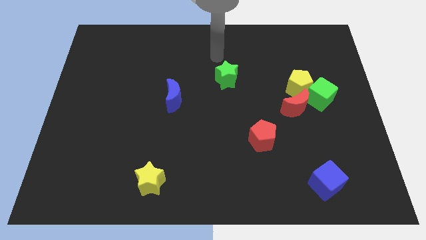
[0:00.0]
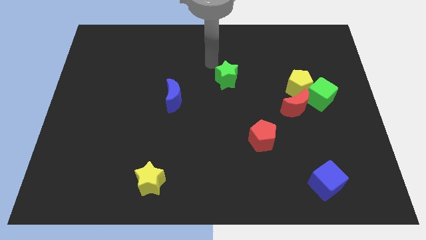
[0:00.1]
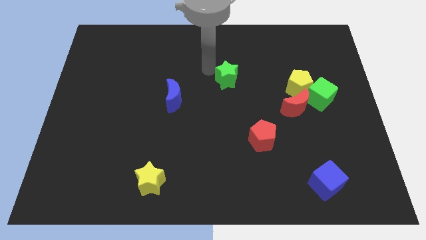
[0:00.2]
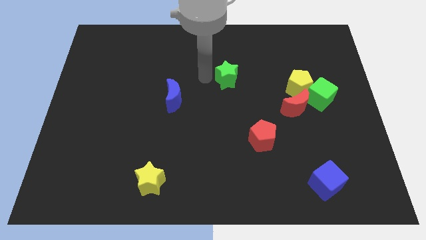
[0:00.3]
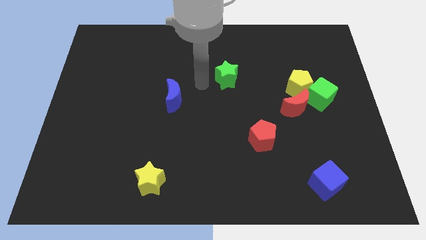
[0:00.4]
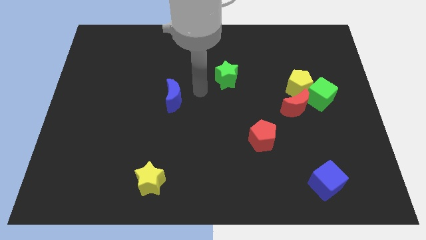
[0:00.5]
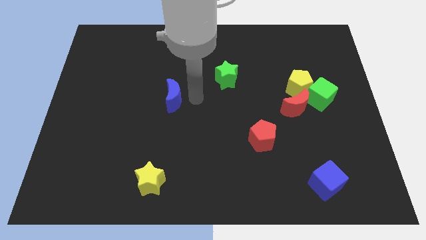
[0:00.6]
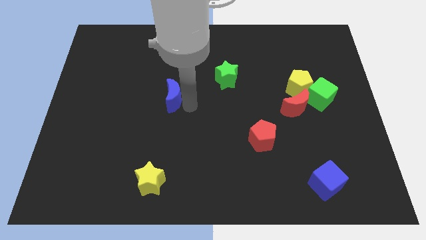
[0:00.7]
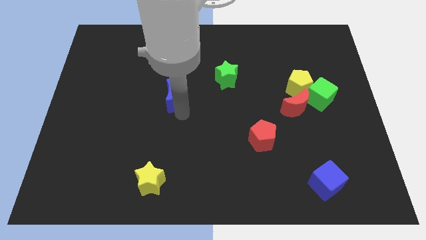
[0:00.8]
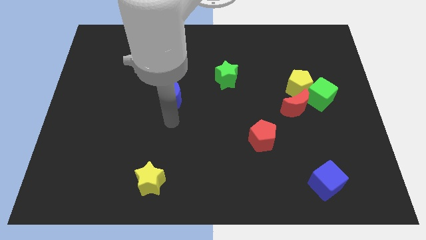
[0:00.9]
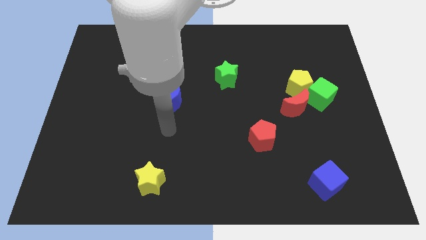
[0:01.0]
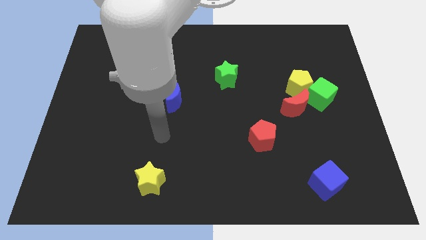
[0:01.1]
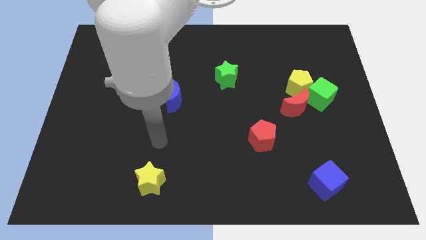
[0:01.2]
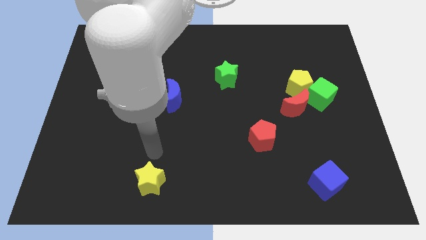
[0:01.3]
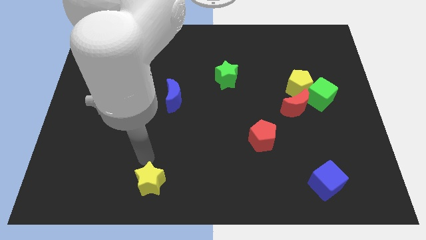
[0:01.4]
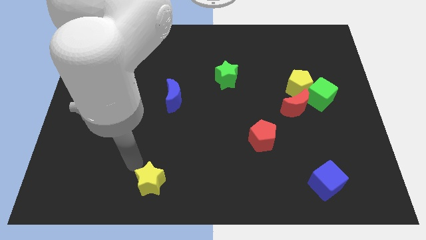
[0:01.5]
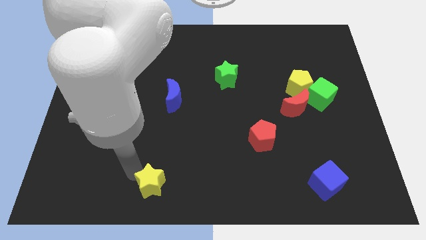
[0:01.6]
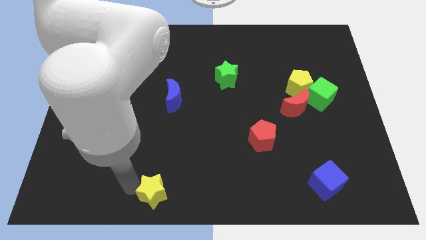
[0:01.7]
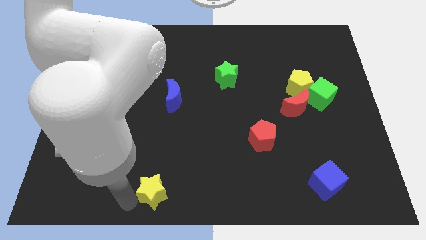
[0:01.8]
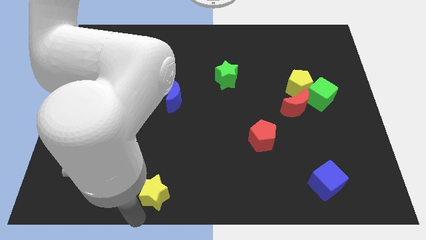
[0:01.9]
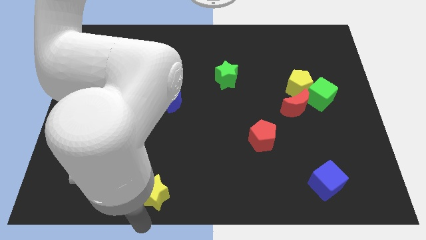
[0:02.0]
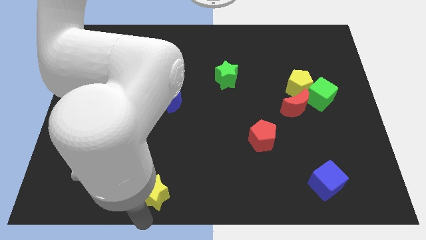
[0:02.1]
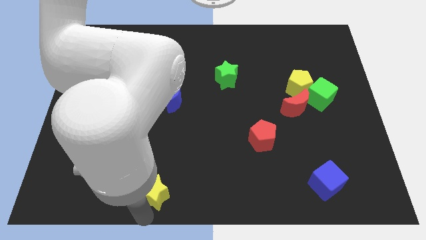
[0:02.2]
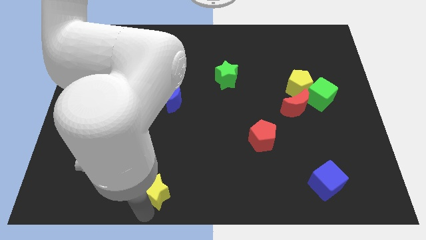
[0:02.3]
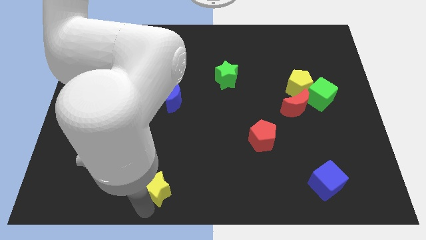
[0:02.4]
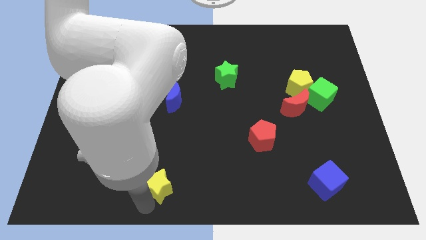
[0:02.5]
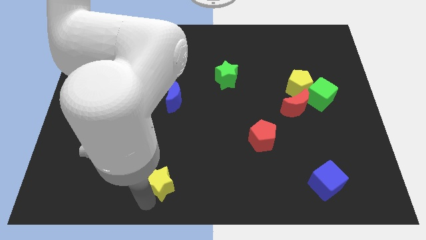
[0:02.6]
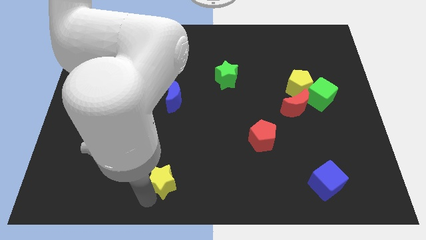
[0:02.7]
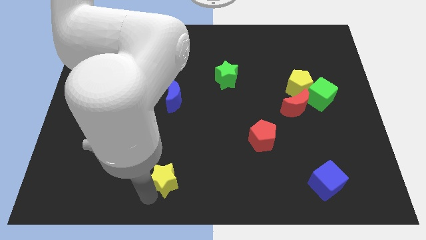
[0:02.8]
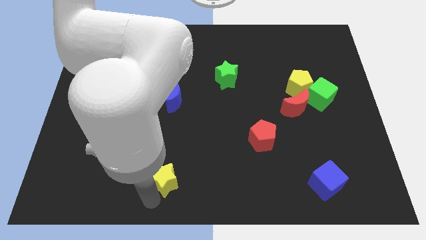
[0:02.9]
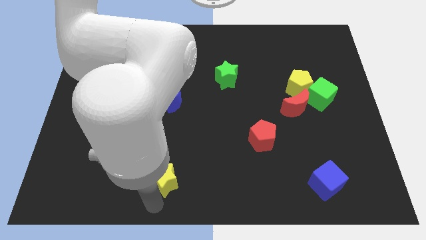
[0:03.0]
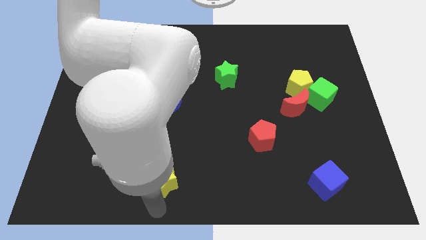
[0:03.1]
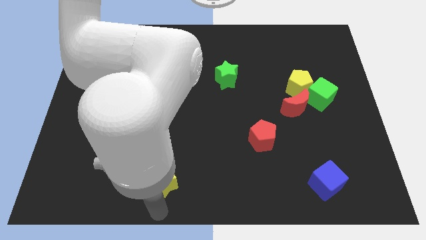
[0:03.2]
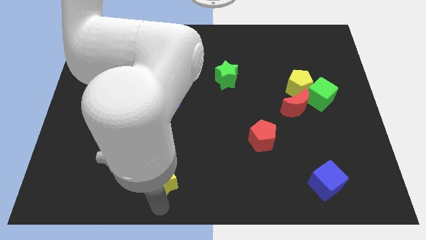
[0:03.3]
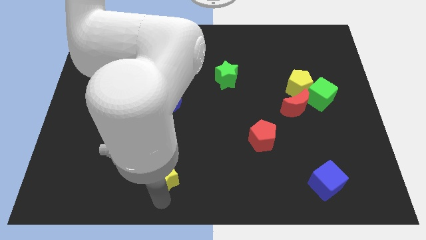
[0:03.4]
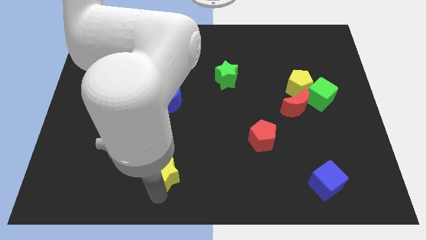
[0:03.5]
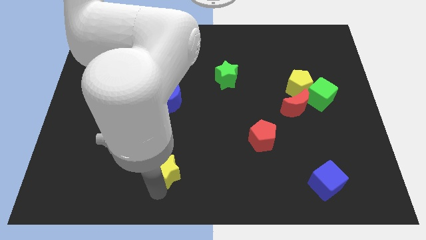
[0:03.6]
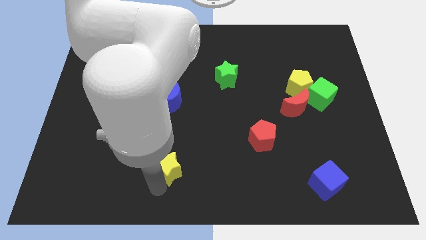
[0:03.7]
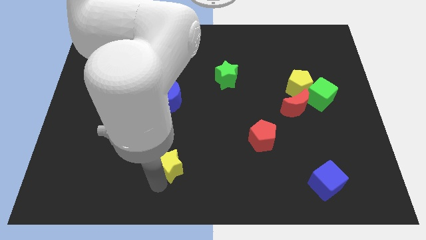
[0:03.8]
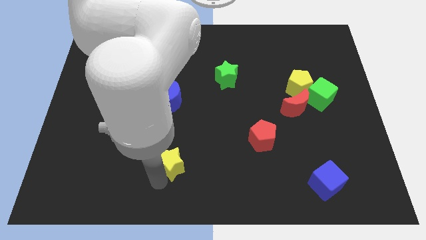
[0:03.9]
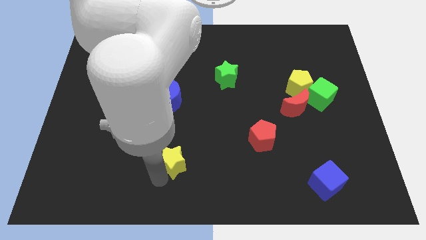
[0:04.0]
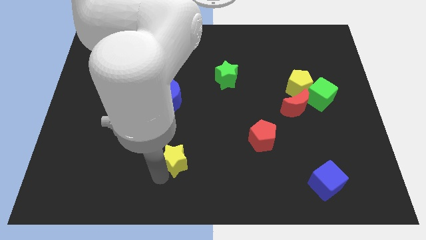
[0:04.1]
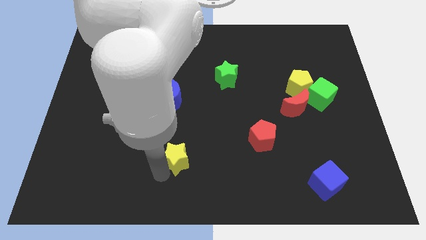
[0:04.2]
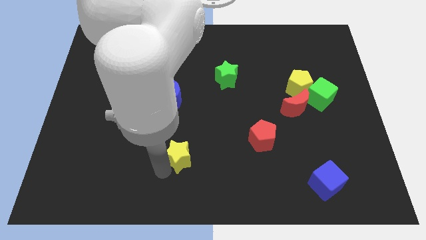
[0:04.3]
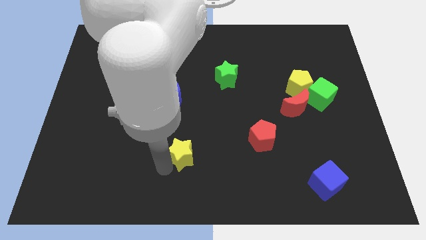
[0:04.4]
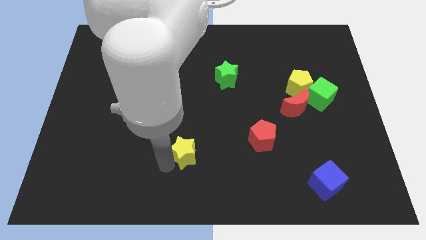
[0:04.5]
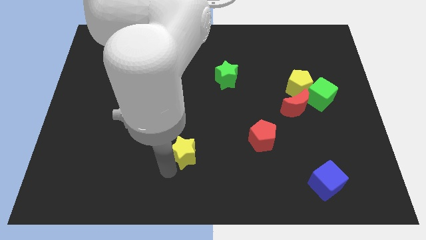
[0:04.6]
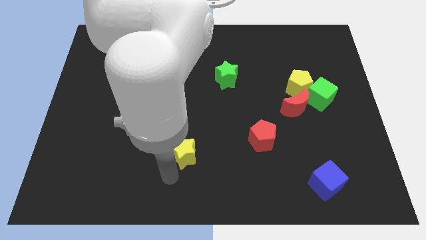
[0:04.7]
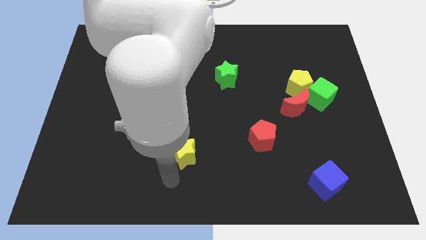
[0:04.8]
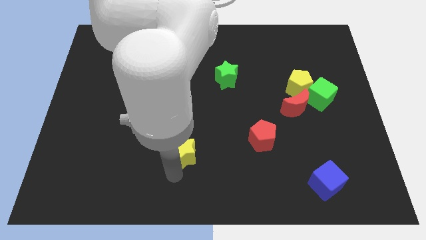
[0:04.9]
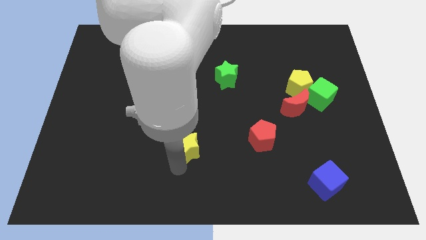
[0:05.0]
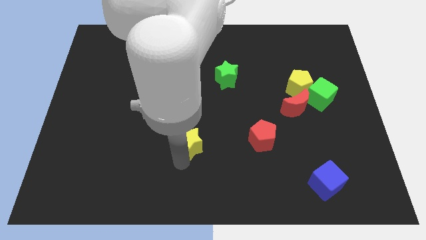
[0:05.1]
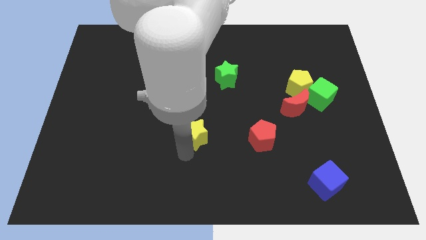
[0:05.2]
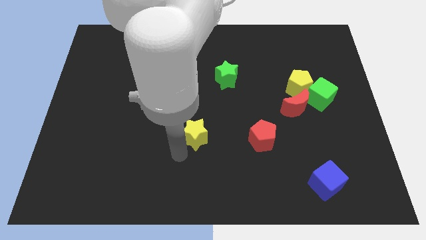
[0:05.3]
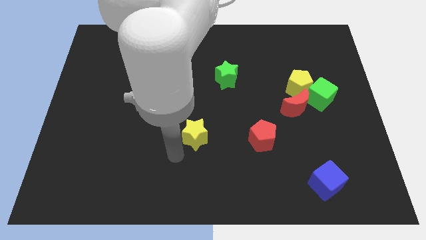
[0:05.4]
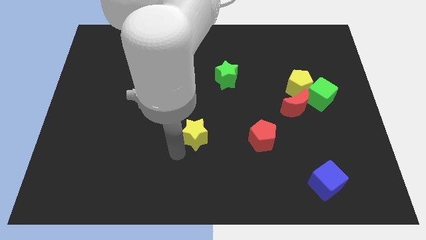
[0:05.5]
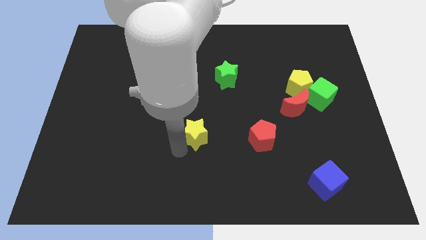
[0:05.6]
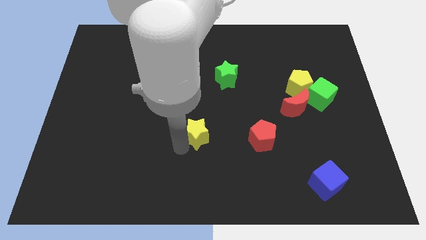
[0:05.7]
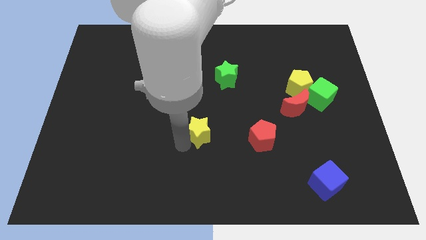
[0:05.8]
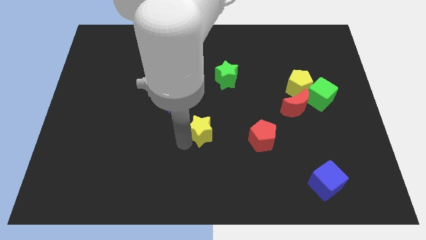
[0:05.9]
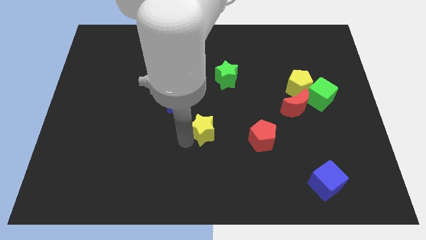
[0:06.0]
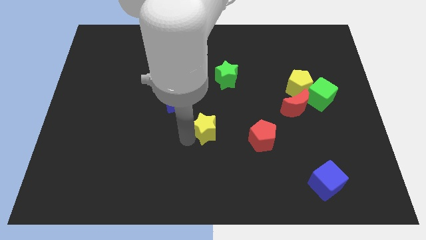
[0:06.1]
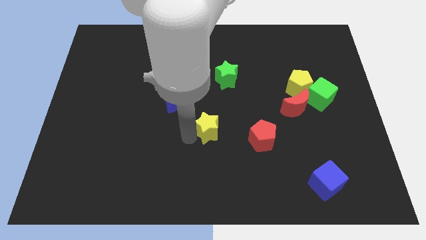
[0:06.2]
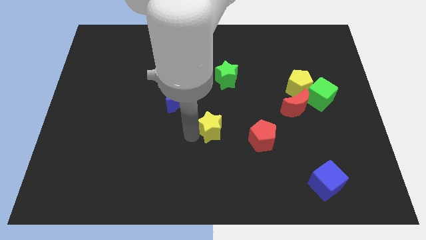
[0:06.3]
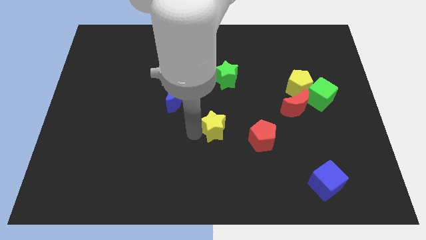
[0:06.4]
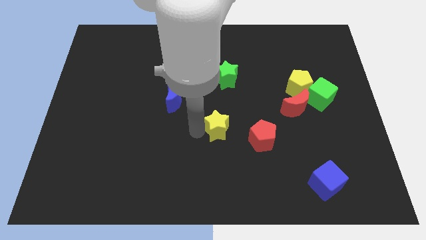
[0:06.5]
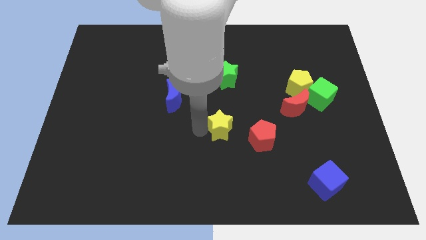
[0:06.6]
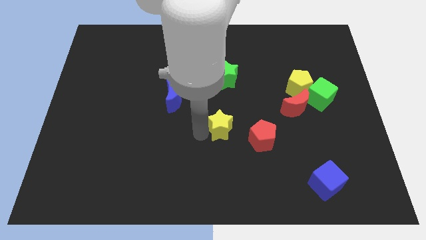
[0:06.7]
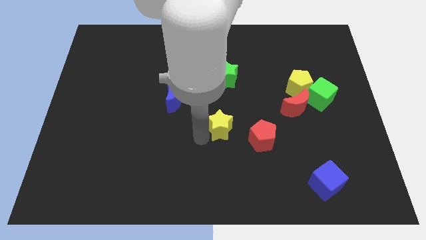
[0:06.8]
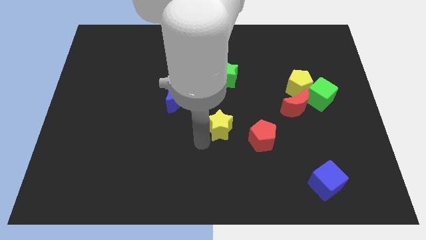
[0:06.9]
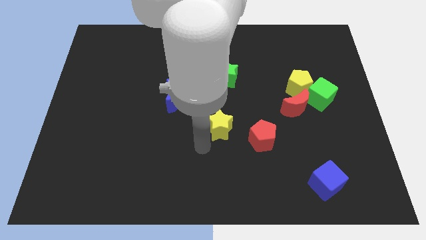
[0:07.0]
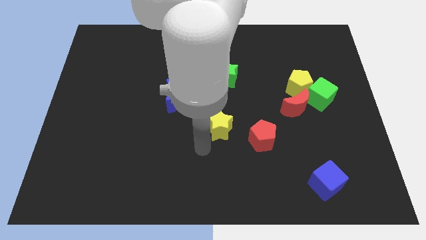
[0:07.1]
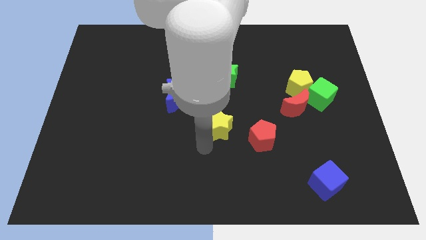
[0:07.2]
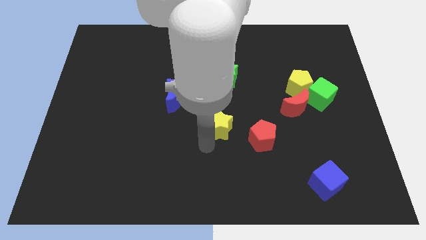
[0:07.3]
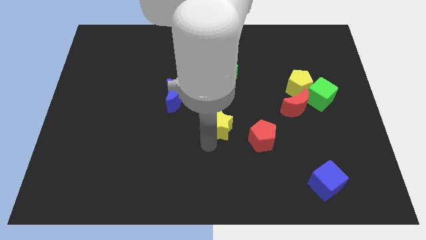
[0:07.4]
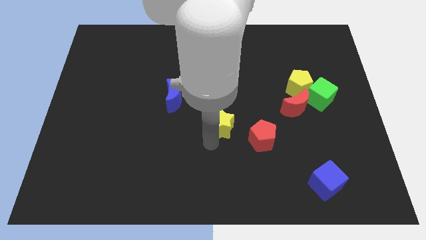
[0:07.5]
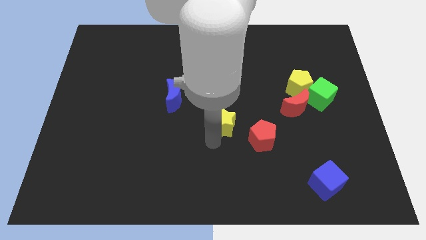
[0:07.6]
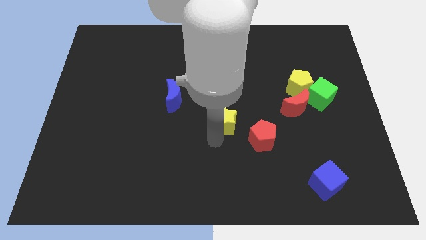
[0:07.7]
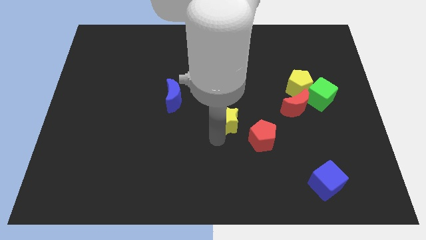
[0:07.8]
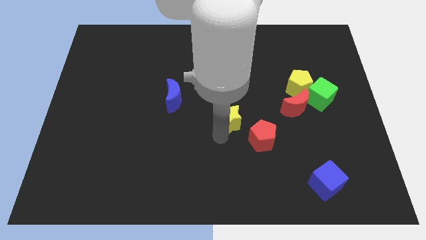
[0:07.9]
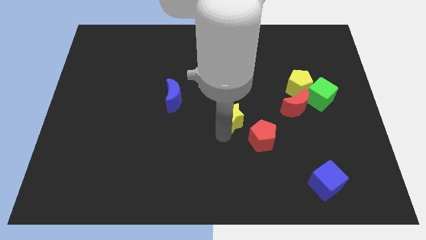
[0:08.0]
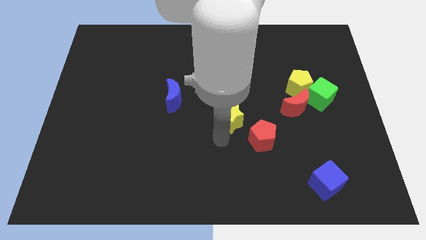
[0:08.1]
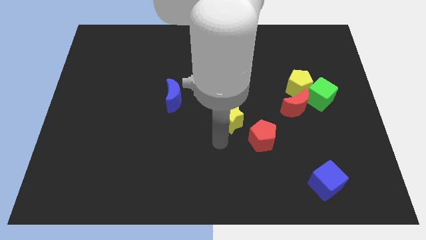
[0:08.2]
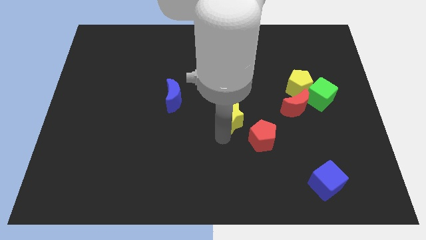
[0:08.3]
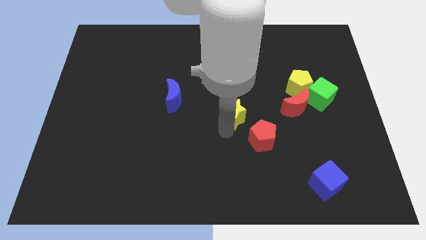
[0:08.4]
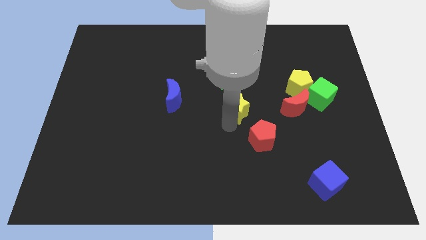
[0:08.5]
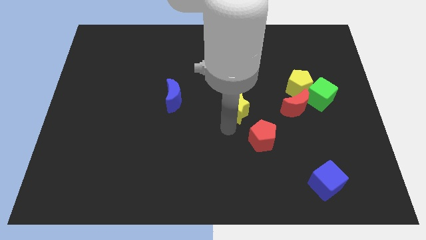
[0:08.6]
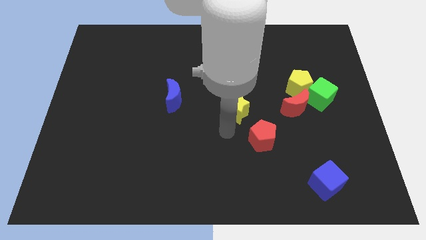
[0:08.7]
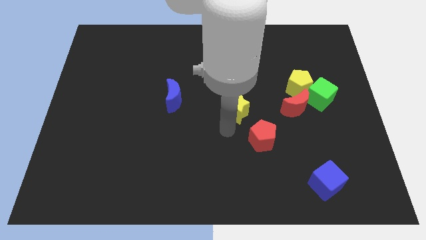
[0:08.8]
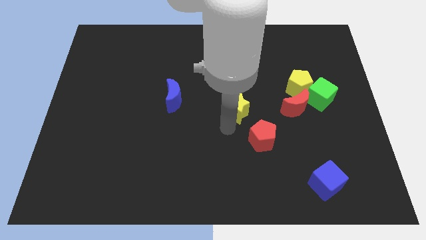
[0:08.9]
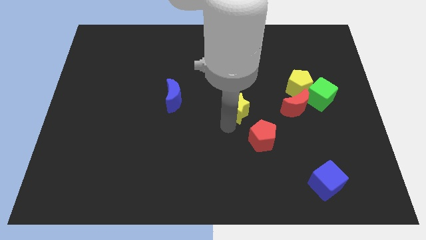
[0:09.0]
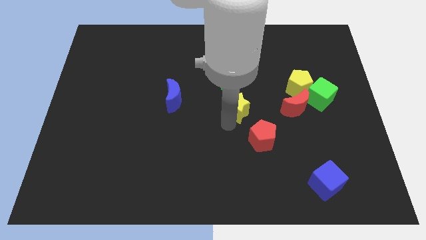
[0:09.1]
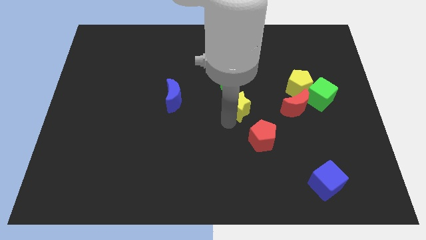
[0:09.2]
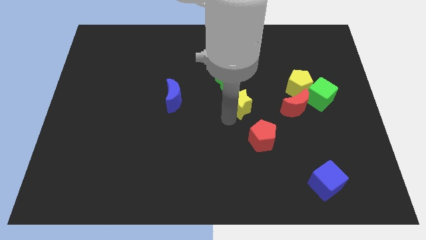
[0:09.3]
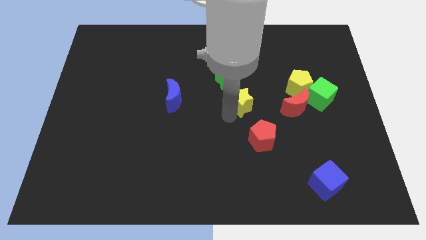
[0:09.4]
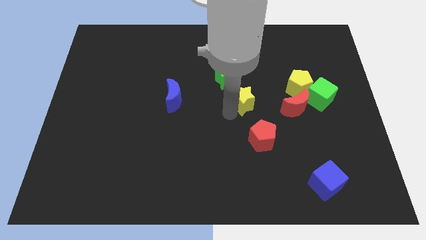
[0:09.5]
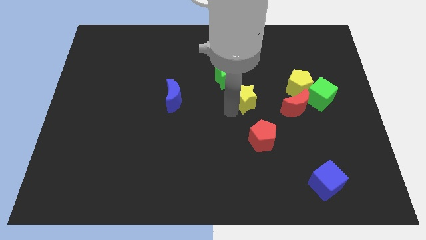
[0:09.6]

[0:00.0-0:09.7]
put the yellow star to the left side of the yellow pentagon
